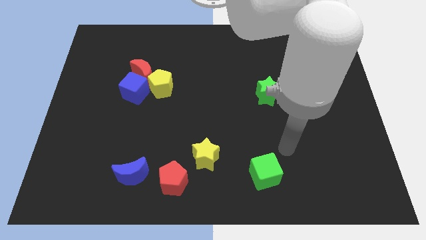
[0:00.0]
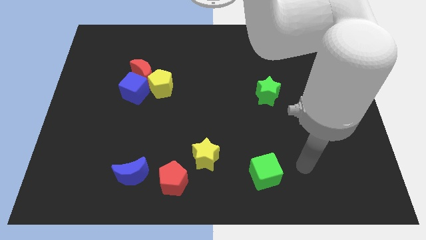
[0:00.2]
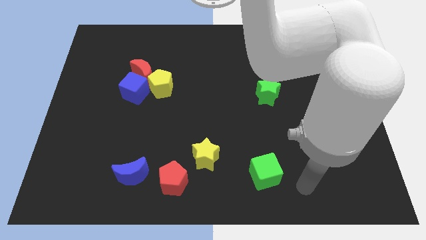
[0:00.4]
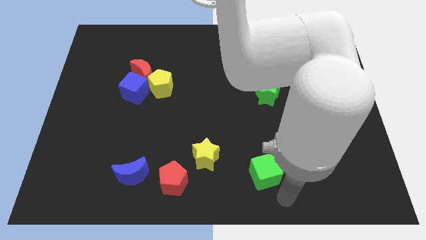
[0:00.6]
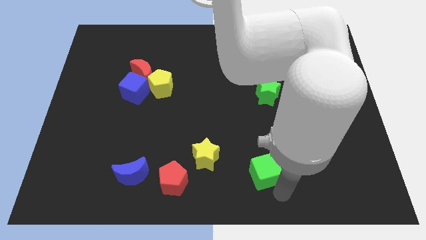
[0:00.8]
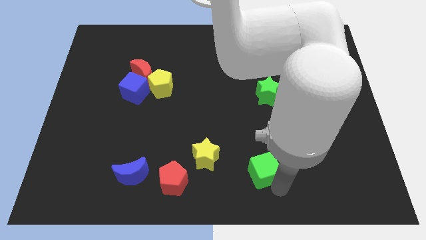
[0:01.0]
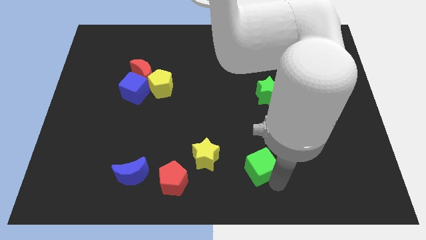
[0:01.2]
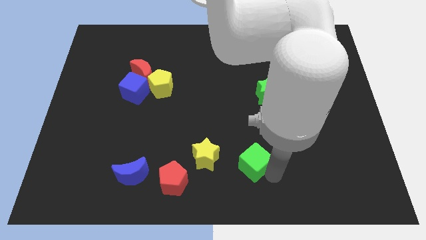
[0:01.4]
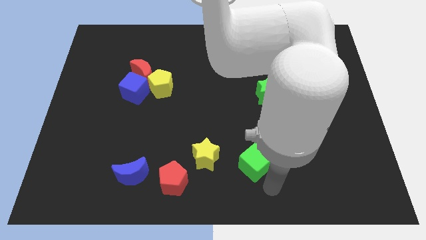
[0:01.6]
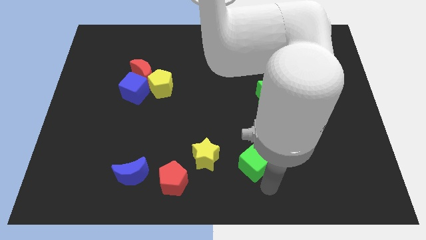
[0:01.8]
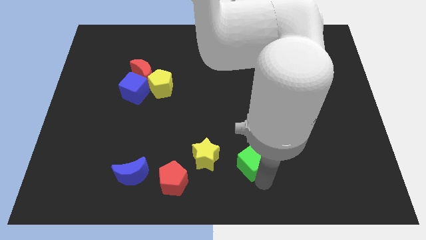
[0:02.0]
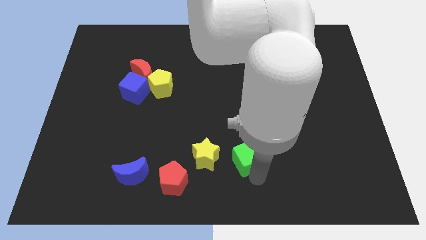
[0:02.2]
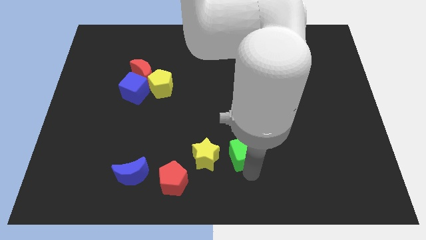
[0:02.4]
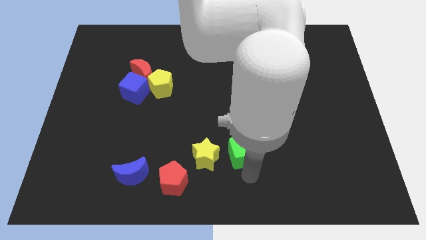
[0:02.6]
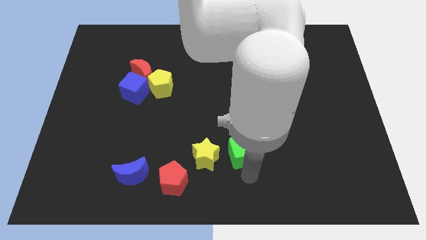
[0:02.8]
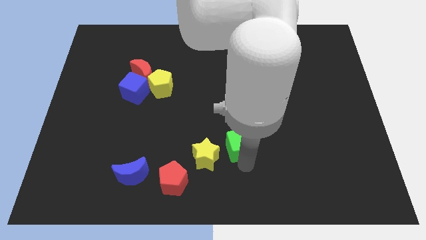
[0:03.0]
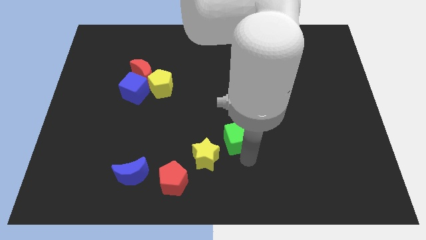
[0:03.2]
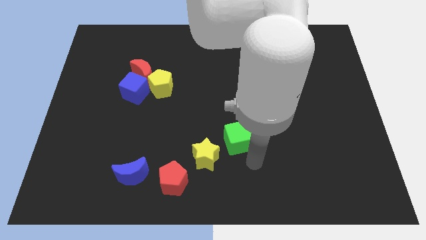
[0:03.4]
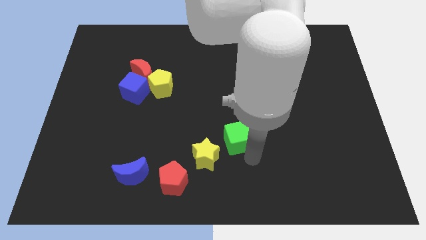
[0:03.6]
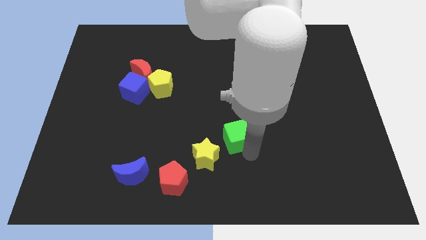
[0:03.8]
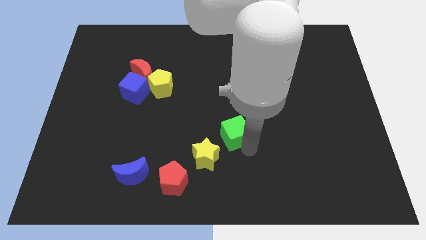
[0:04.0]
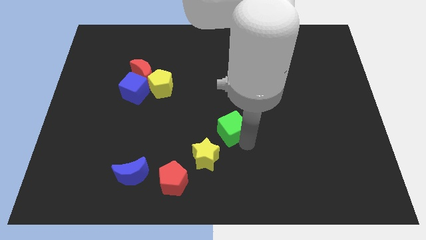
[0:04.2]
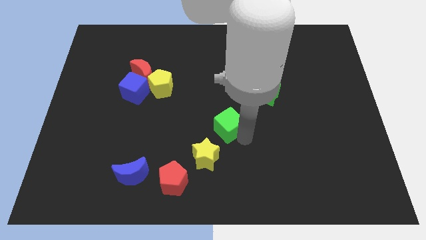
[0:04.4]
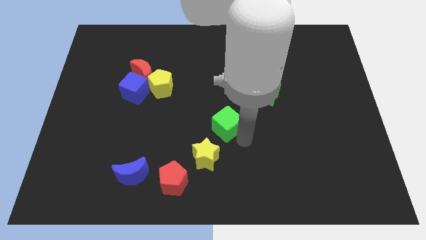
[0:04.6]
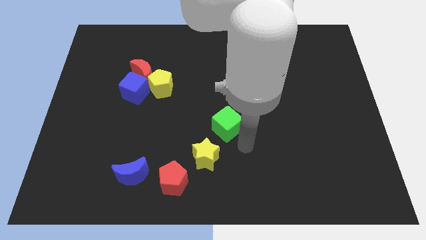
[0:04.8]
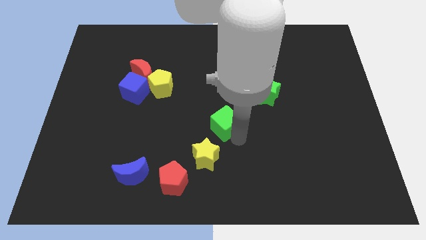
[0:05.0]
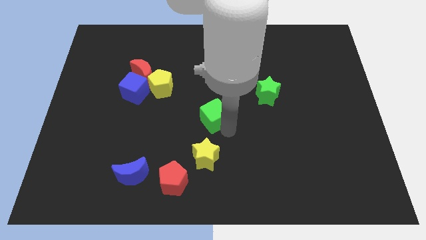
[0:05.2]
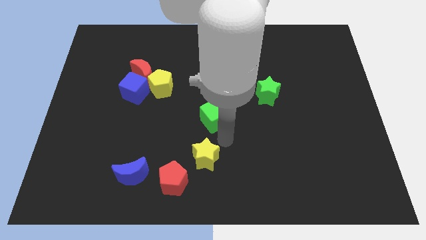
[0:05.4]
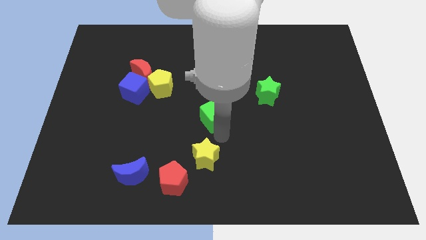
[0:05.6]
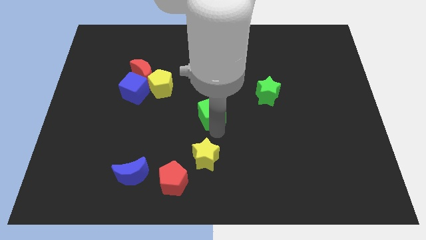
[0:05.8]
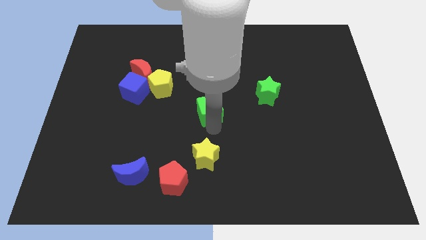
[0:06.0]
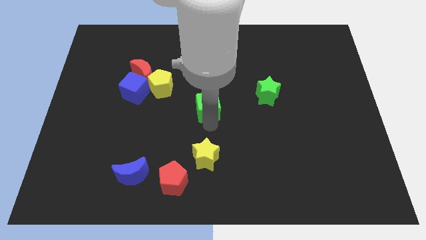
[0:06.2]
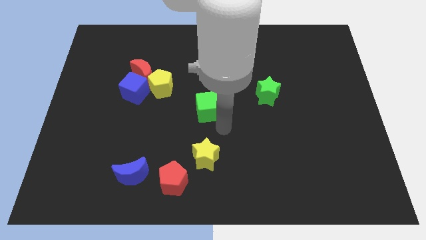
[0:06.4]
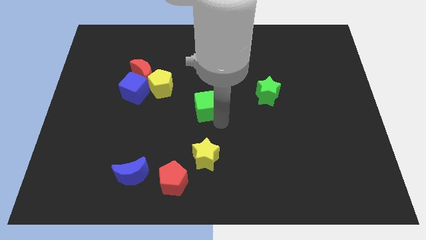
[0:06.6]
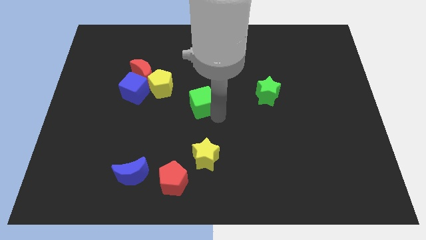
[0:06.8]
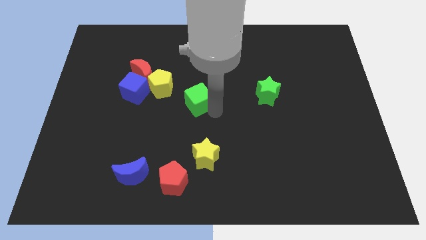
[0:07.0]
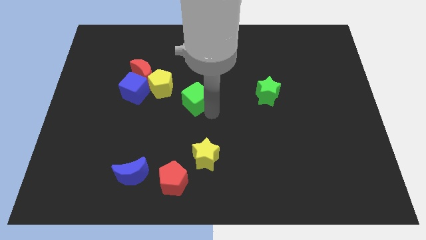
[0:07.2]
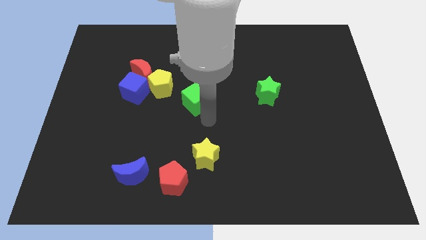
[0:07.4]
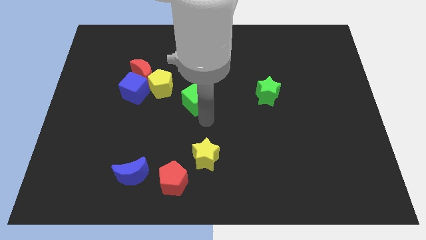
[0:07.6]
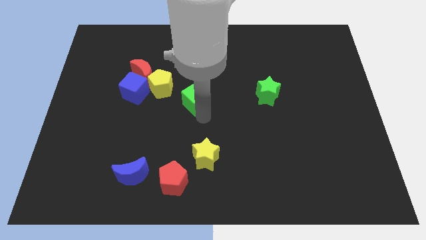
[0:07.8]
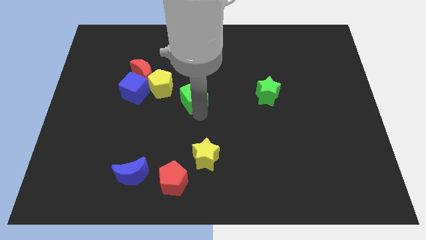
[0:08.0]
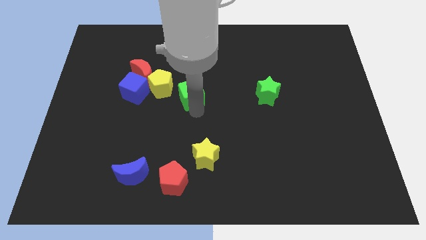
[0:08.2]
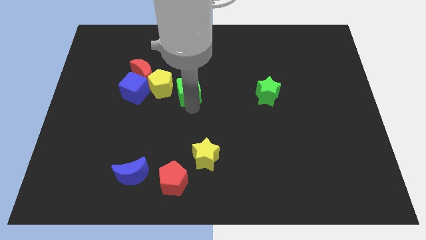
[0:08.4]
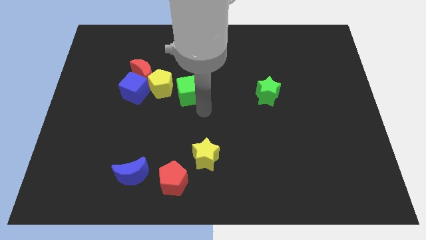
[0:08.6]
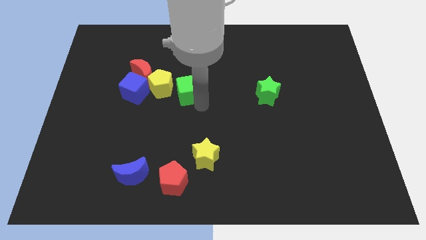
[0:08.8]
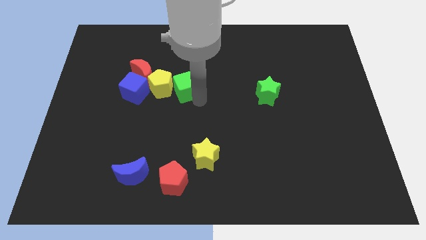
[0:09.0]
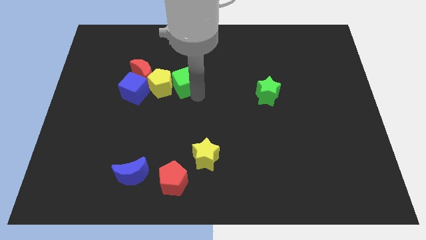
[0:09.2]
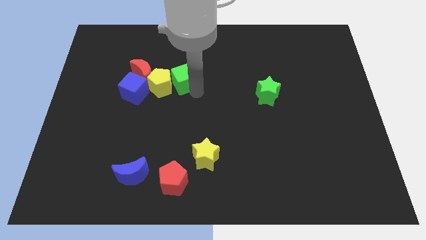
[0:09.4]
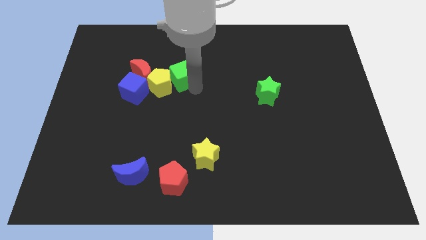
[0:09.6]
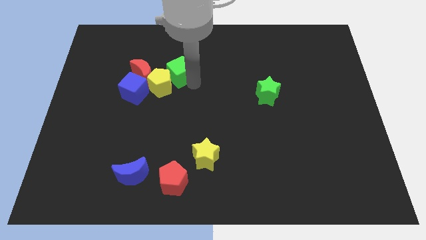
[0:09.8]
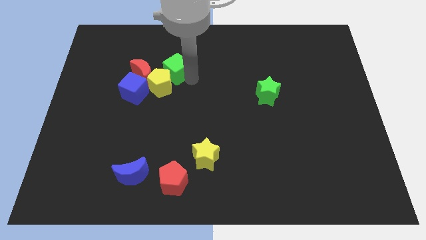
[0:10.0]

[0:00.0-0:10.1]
move the green cube to the top right side of the red moon

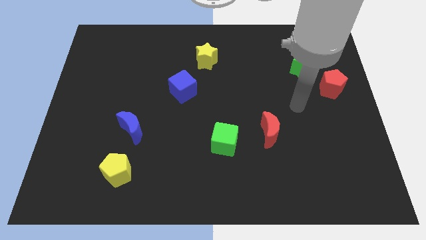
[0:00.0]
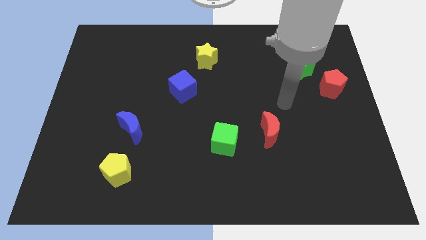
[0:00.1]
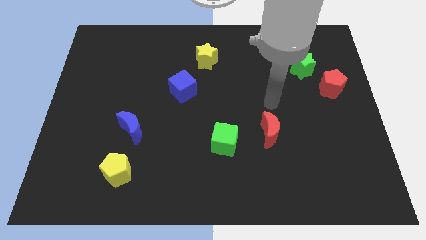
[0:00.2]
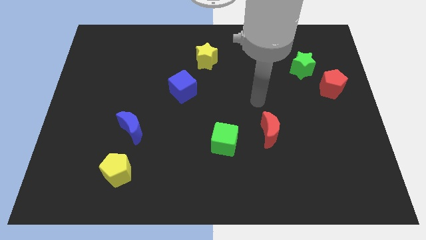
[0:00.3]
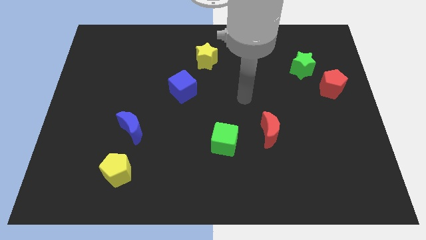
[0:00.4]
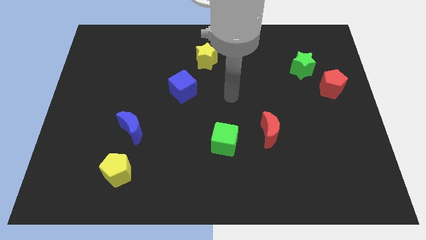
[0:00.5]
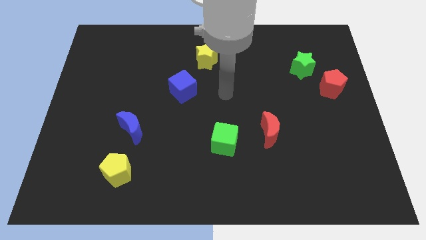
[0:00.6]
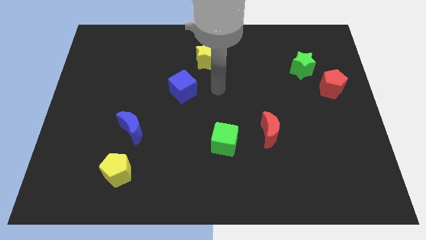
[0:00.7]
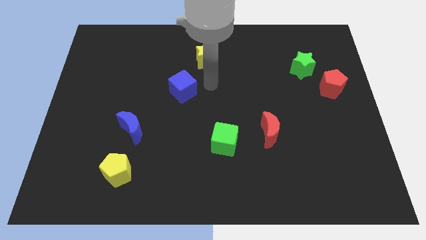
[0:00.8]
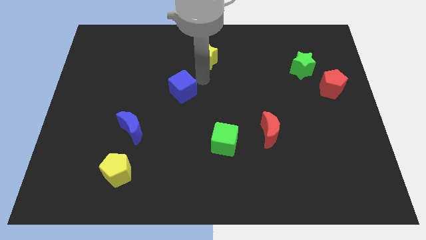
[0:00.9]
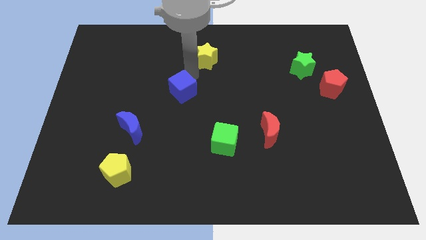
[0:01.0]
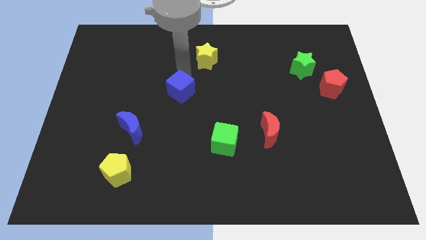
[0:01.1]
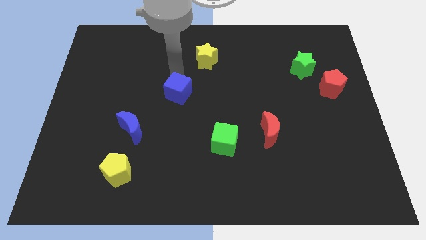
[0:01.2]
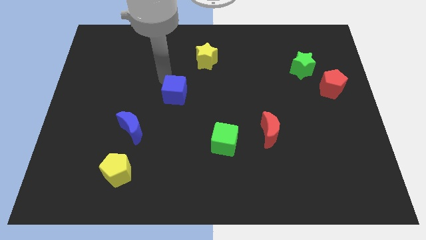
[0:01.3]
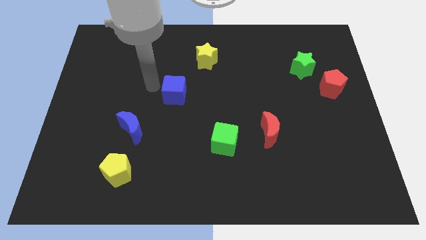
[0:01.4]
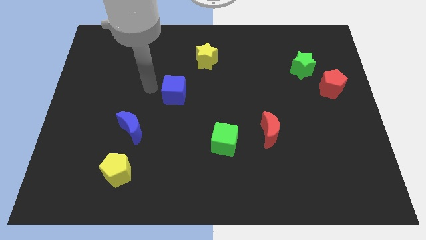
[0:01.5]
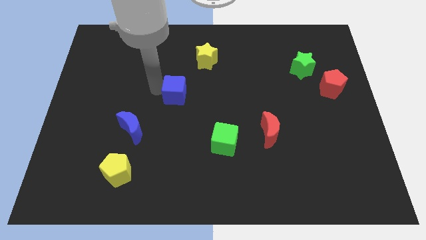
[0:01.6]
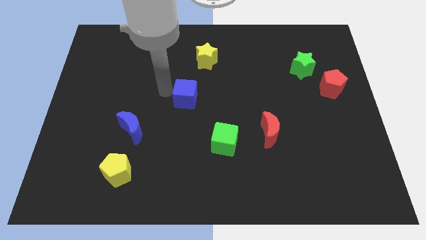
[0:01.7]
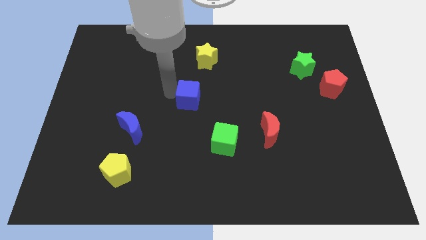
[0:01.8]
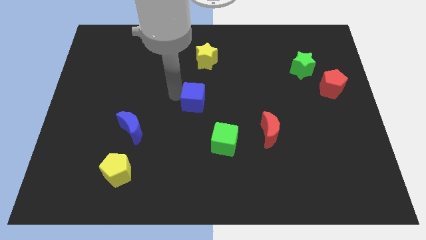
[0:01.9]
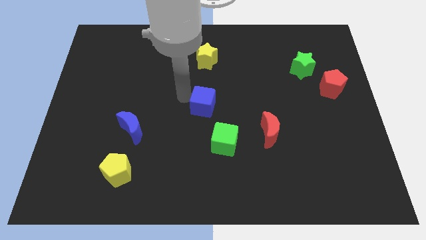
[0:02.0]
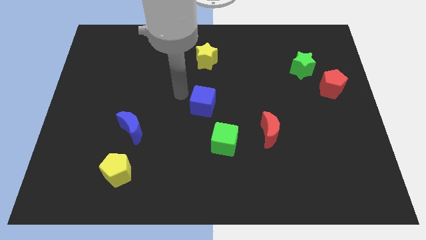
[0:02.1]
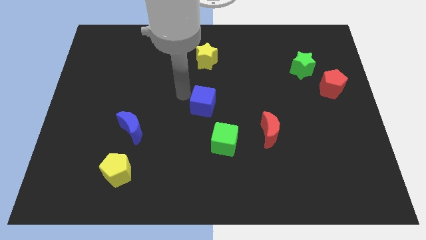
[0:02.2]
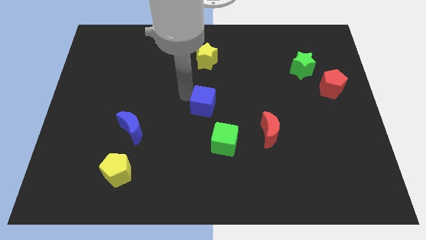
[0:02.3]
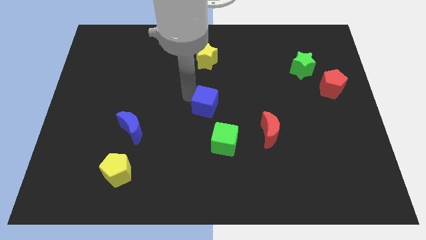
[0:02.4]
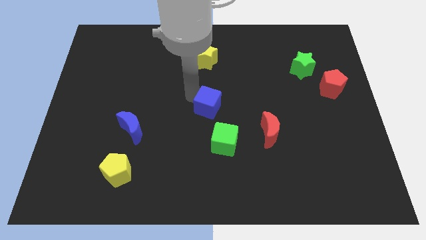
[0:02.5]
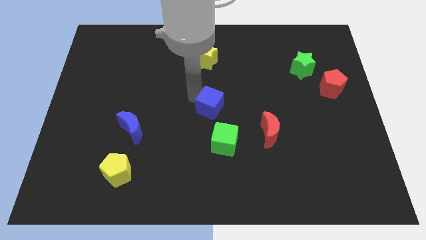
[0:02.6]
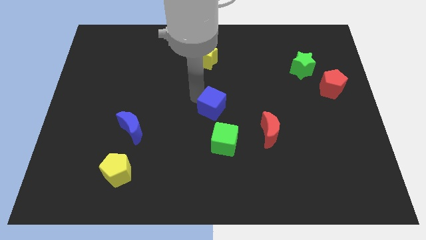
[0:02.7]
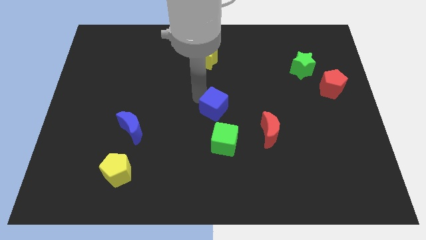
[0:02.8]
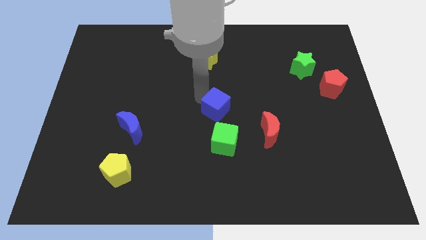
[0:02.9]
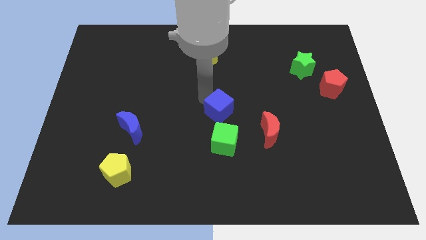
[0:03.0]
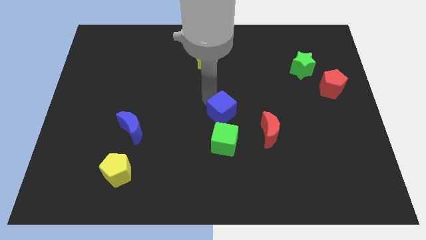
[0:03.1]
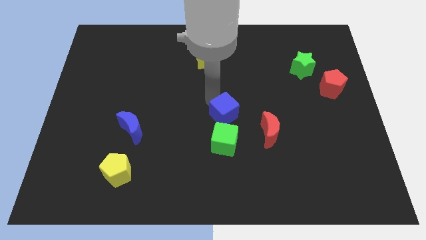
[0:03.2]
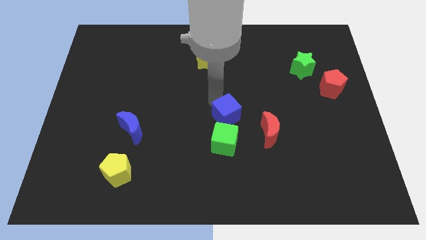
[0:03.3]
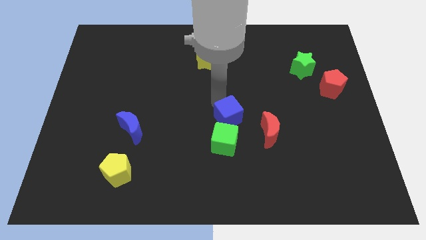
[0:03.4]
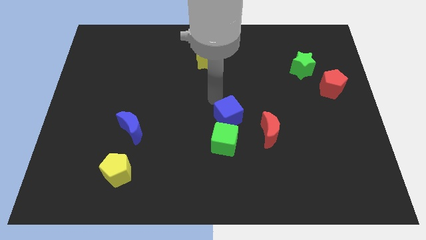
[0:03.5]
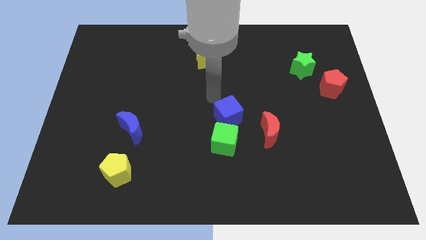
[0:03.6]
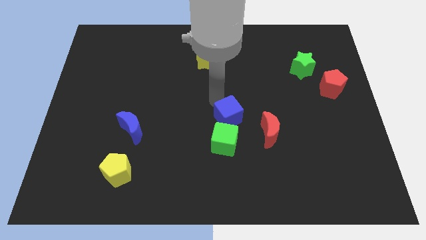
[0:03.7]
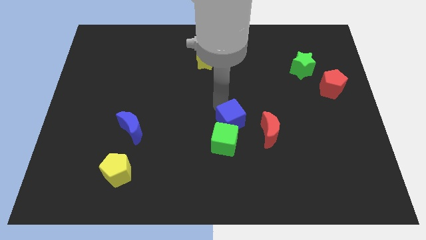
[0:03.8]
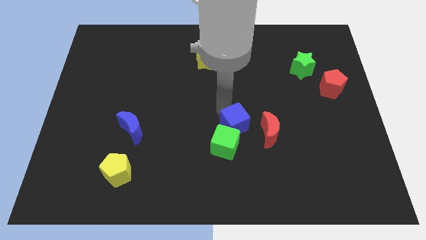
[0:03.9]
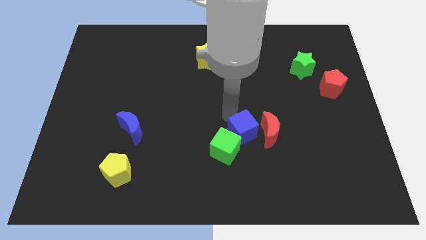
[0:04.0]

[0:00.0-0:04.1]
slide the blue cube diagonally down and to the left of the red moon
